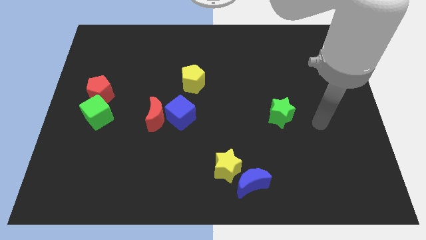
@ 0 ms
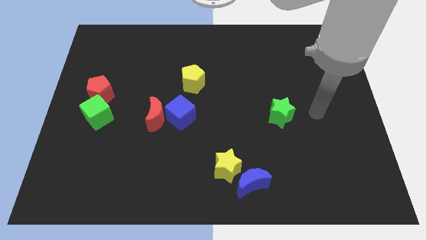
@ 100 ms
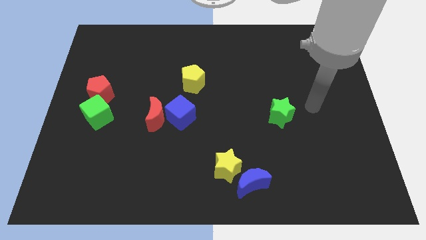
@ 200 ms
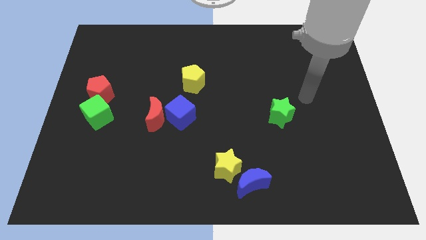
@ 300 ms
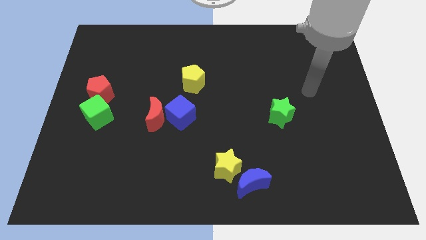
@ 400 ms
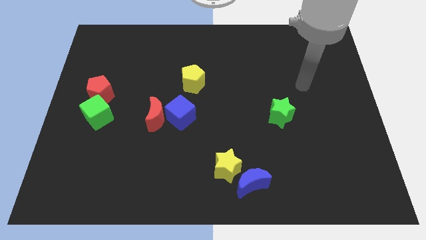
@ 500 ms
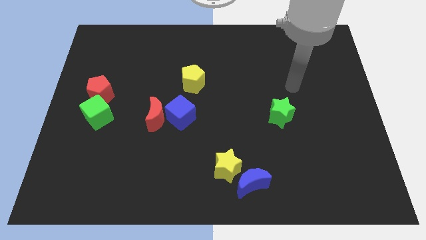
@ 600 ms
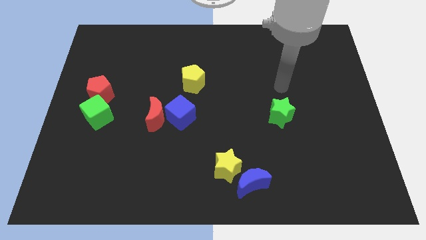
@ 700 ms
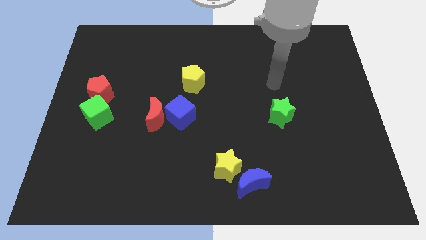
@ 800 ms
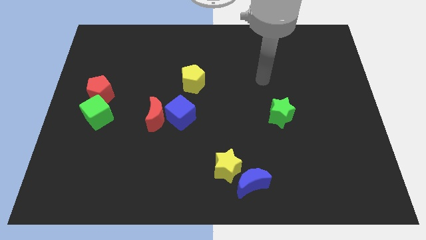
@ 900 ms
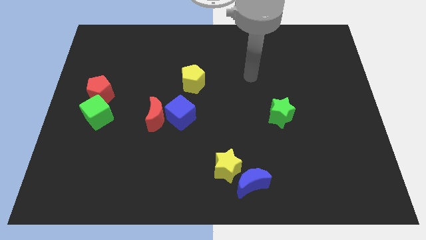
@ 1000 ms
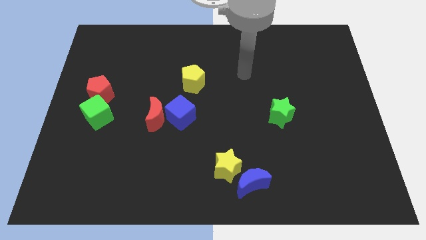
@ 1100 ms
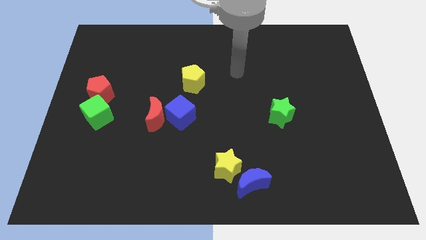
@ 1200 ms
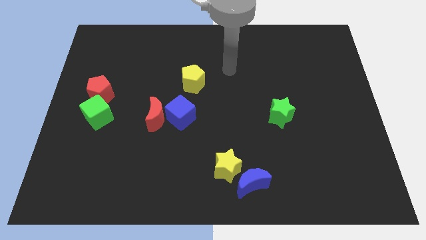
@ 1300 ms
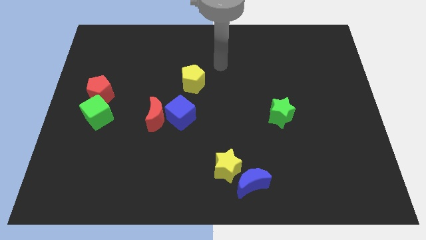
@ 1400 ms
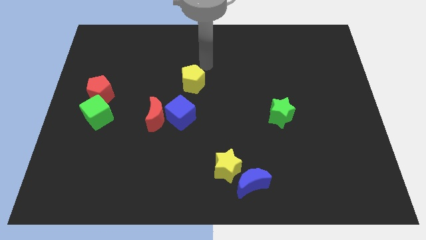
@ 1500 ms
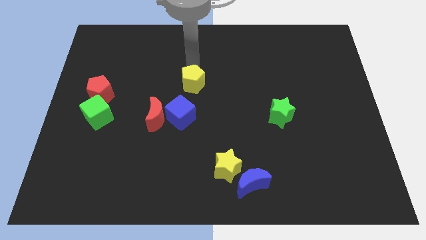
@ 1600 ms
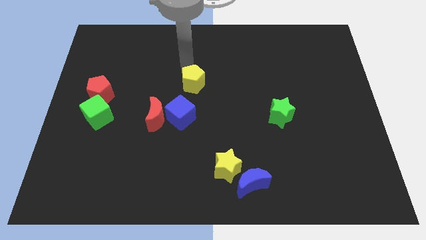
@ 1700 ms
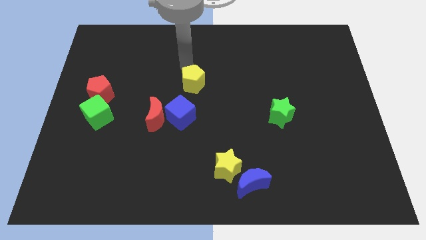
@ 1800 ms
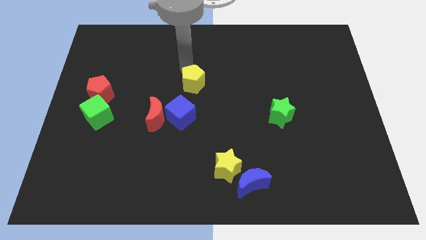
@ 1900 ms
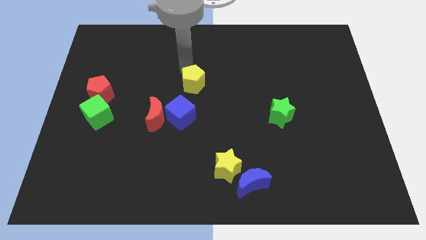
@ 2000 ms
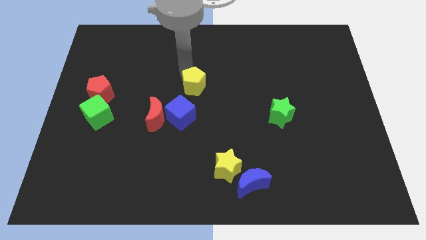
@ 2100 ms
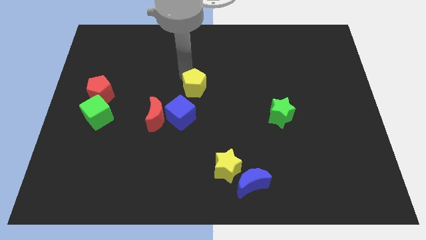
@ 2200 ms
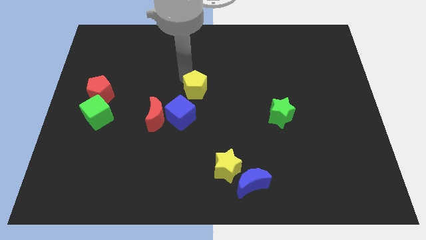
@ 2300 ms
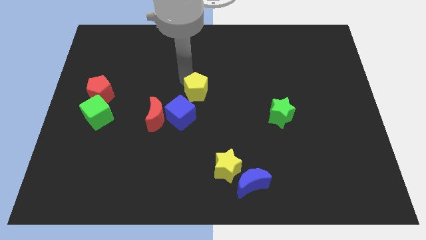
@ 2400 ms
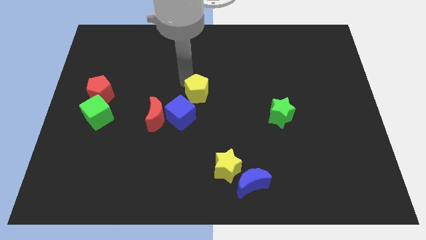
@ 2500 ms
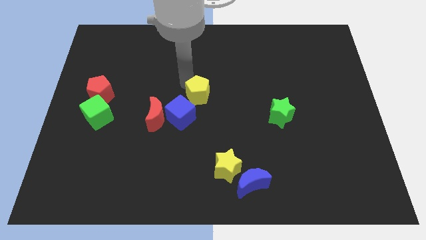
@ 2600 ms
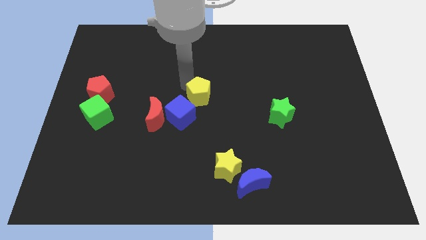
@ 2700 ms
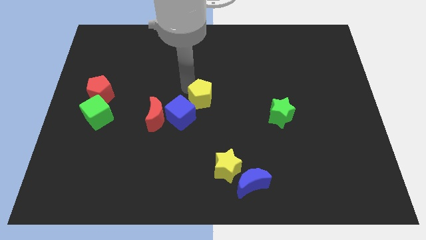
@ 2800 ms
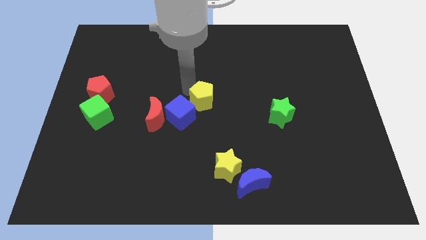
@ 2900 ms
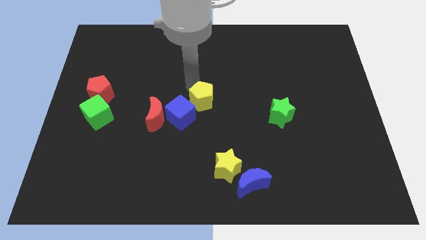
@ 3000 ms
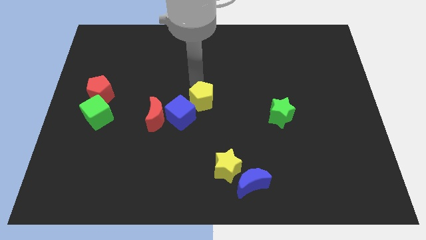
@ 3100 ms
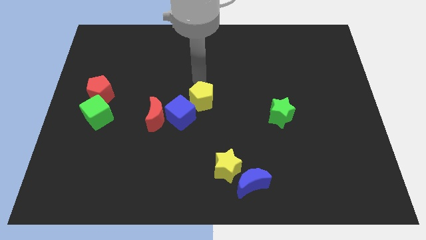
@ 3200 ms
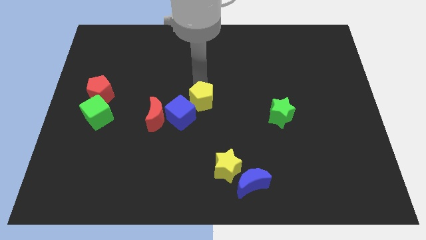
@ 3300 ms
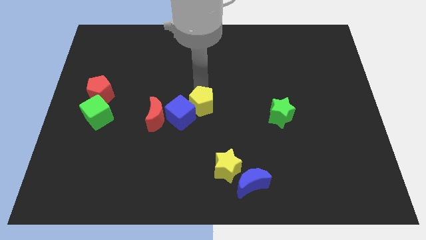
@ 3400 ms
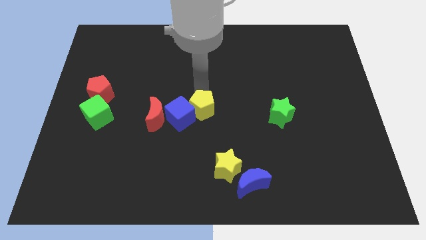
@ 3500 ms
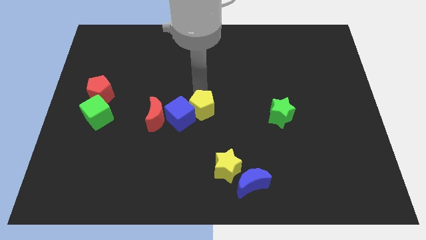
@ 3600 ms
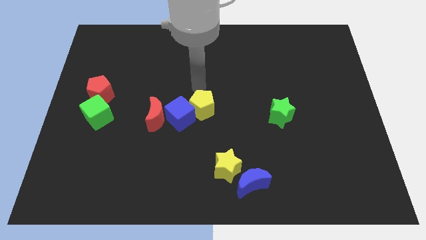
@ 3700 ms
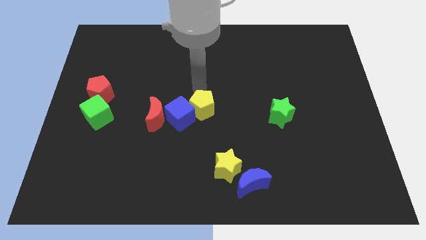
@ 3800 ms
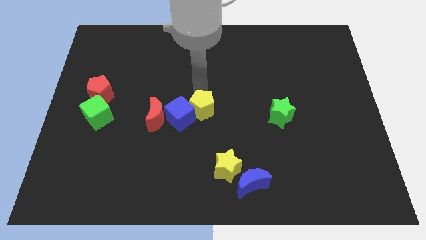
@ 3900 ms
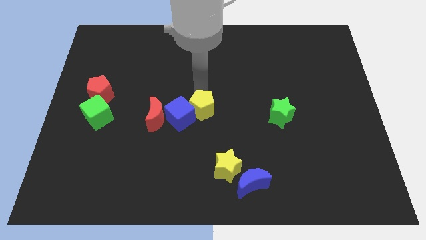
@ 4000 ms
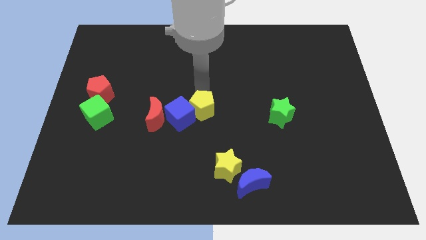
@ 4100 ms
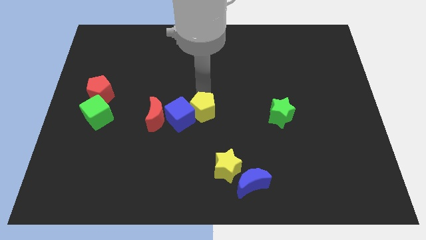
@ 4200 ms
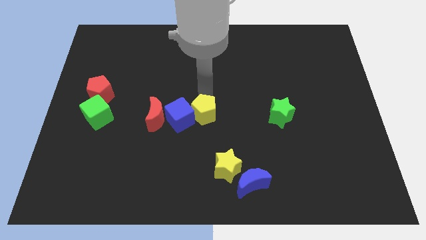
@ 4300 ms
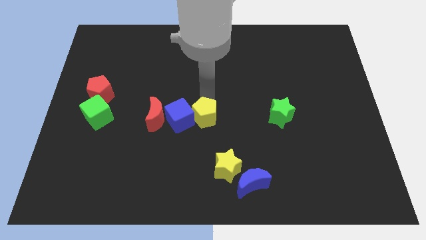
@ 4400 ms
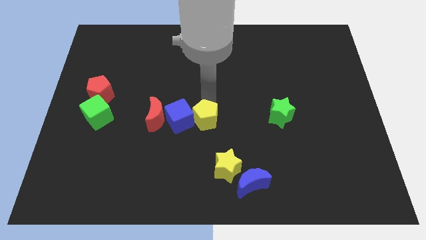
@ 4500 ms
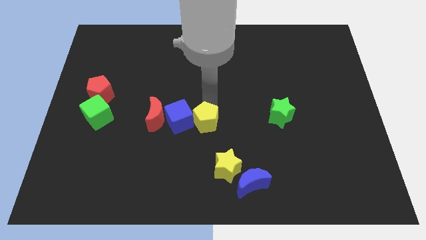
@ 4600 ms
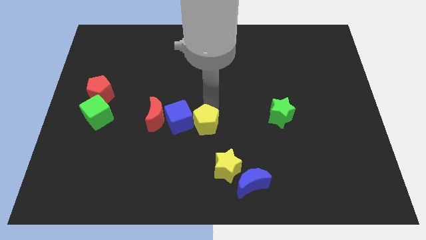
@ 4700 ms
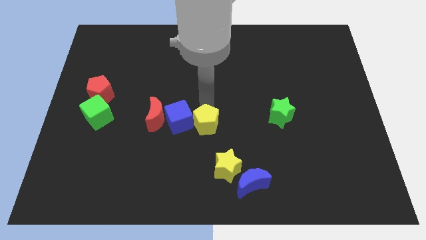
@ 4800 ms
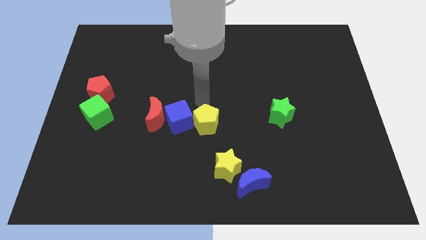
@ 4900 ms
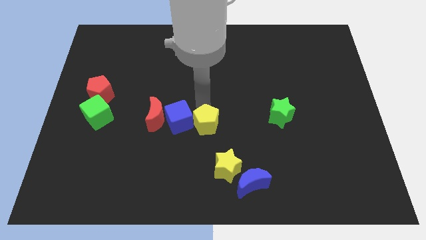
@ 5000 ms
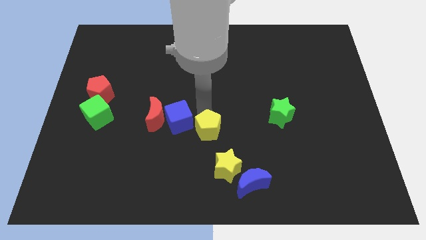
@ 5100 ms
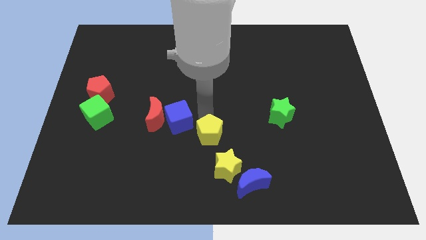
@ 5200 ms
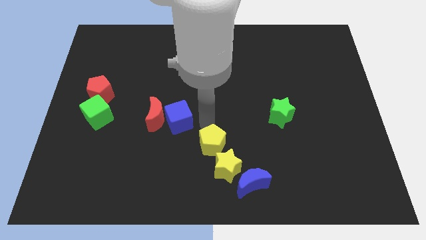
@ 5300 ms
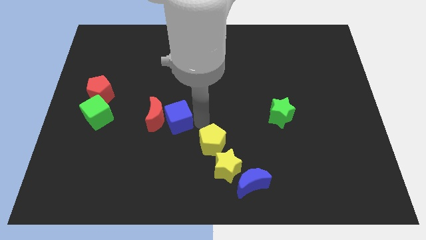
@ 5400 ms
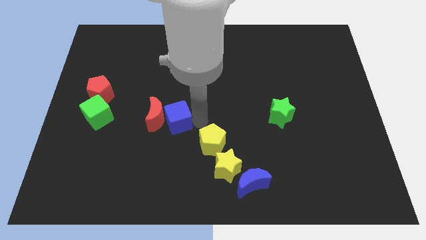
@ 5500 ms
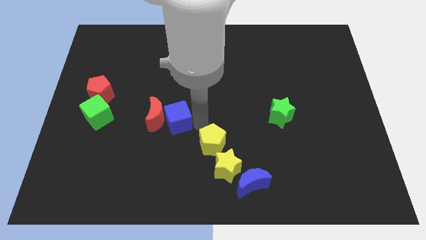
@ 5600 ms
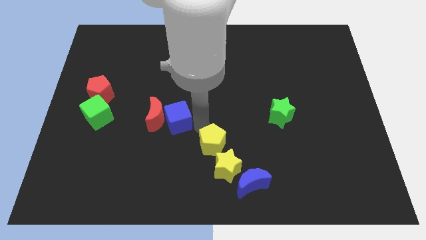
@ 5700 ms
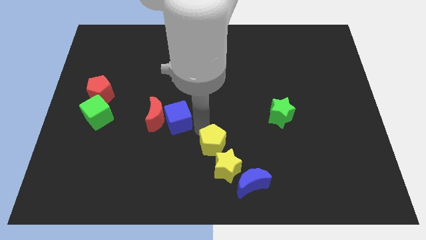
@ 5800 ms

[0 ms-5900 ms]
move the yellow pentagon towards the yellow star

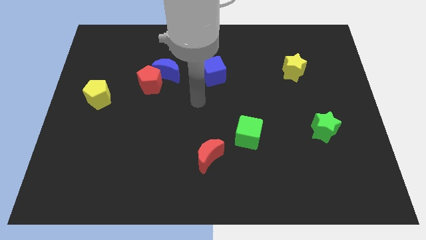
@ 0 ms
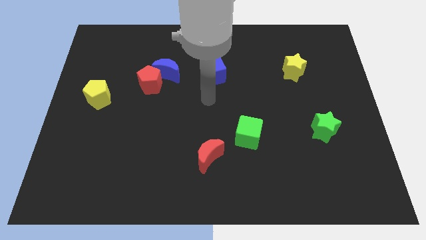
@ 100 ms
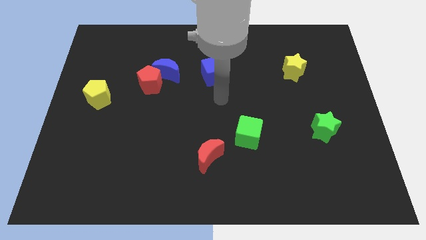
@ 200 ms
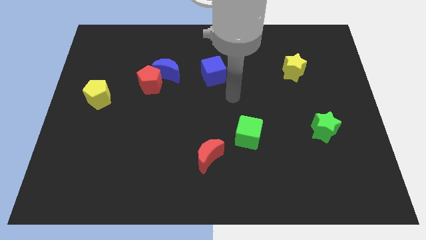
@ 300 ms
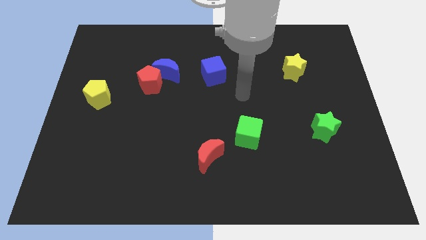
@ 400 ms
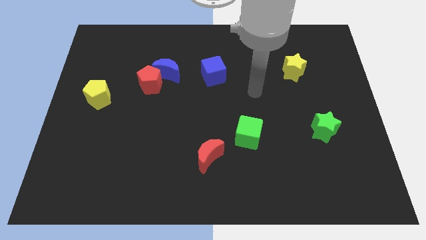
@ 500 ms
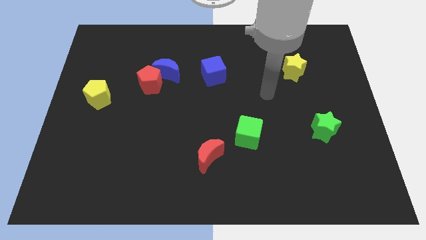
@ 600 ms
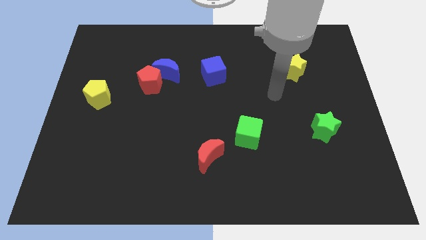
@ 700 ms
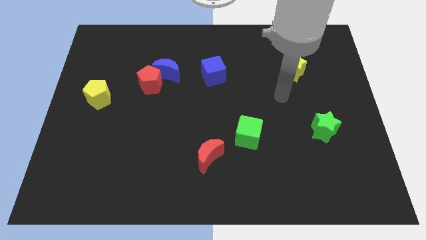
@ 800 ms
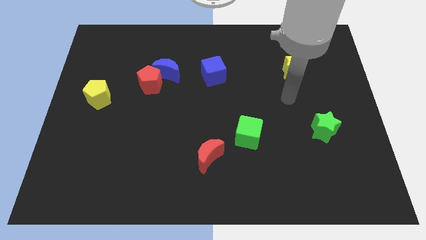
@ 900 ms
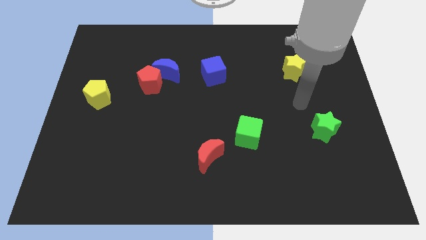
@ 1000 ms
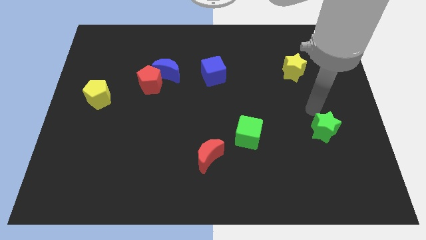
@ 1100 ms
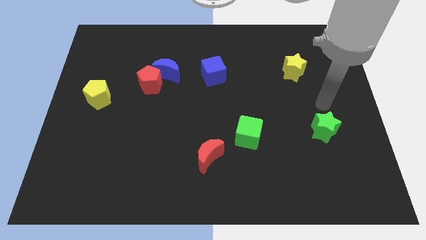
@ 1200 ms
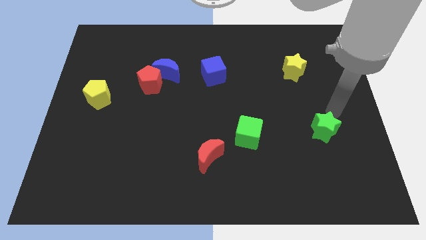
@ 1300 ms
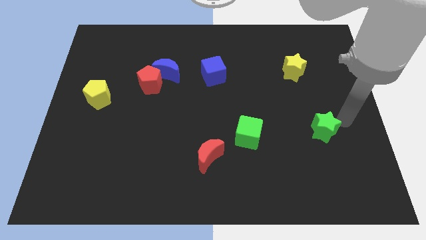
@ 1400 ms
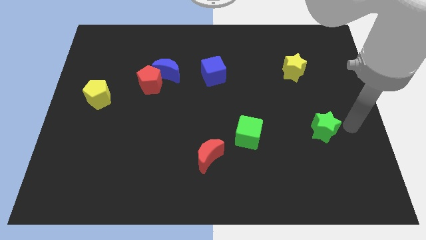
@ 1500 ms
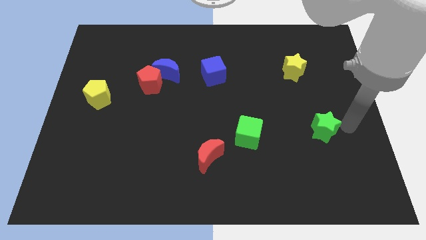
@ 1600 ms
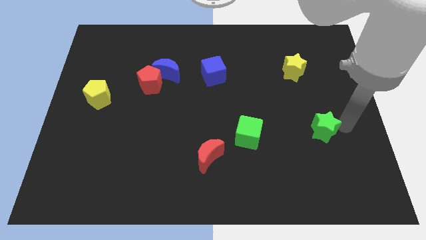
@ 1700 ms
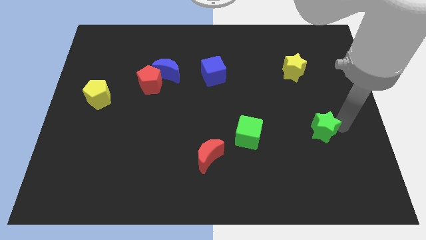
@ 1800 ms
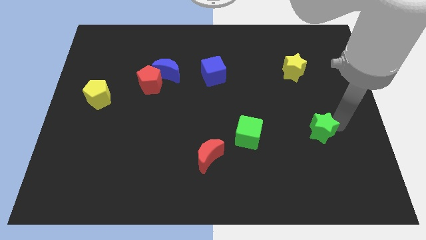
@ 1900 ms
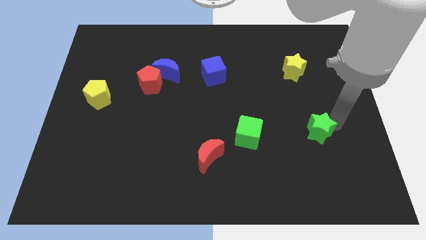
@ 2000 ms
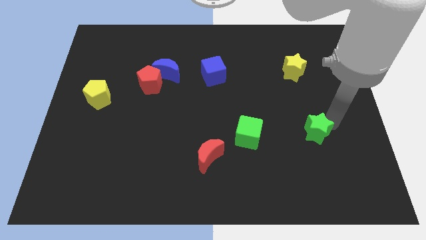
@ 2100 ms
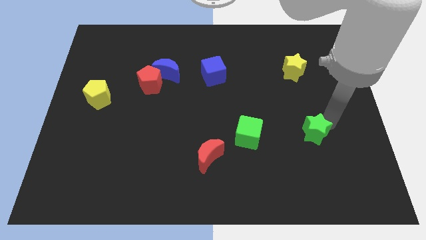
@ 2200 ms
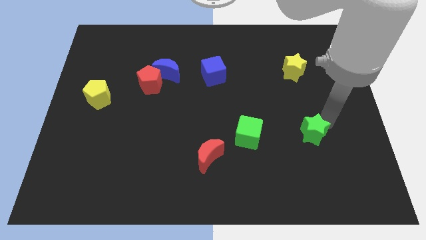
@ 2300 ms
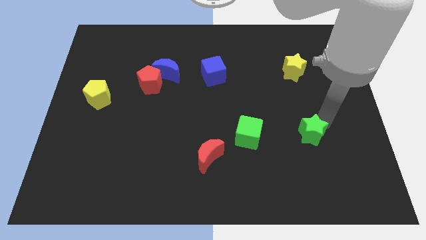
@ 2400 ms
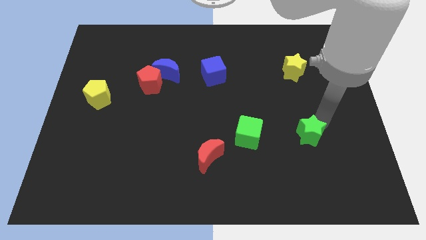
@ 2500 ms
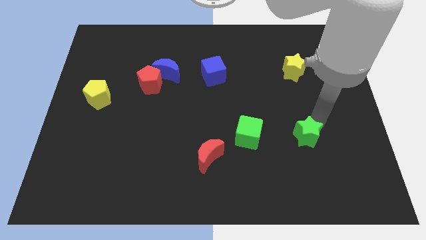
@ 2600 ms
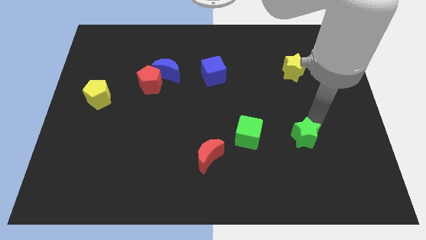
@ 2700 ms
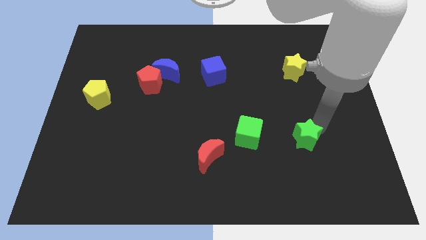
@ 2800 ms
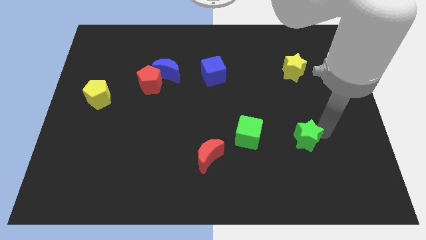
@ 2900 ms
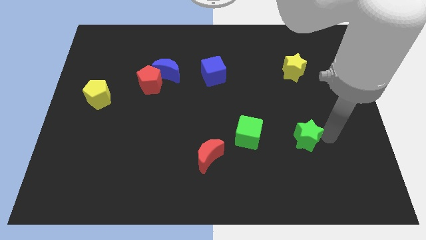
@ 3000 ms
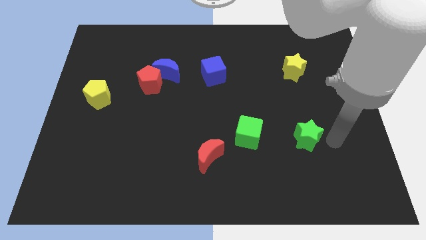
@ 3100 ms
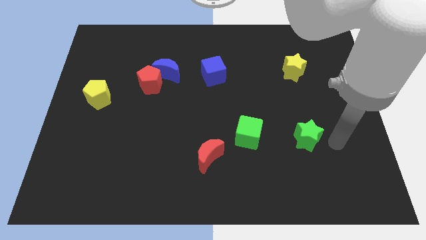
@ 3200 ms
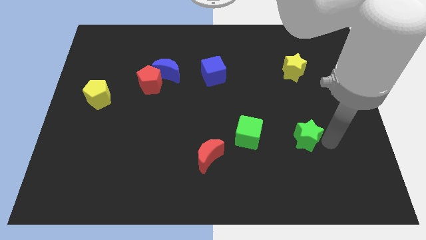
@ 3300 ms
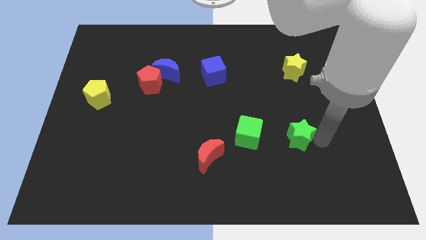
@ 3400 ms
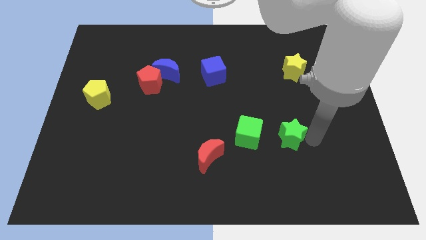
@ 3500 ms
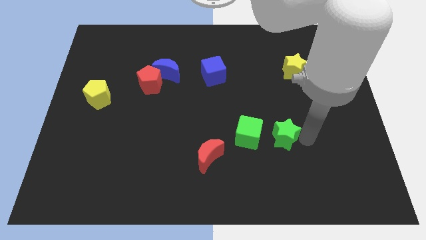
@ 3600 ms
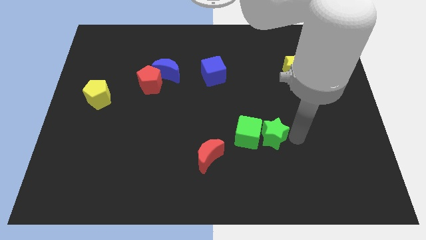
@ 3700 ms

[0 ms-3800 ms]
push the green star next to the green cube
